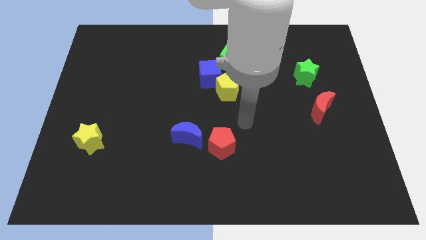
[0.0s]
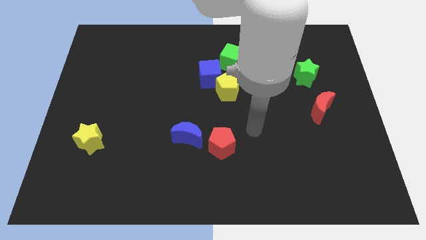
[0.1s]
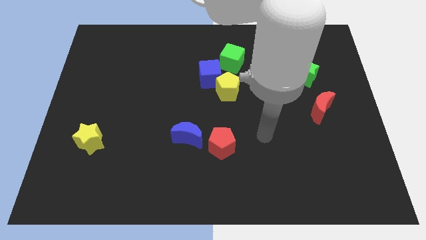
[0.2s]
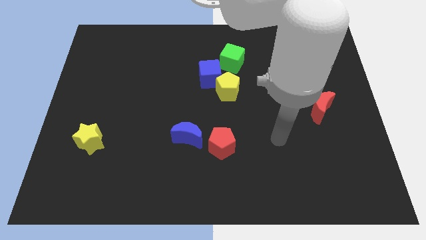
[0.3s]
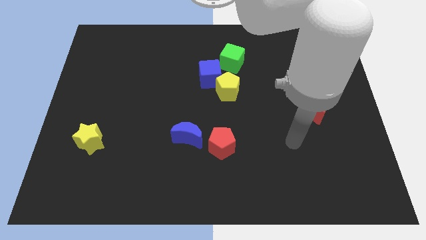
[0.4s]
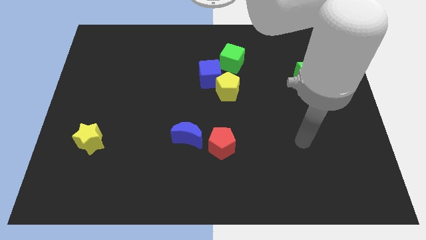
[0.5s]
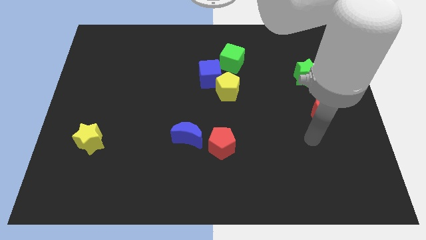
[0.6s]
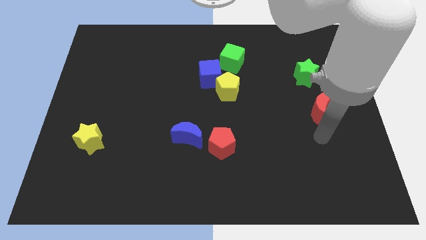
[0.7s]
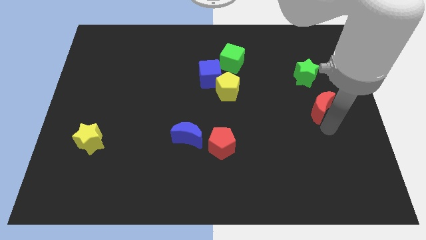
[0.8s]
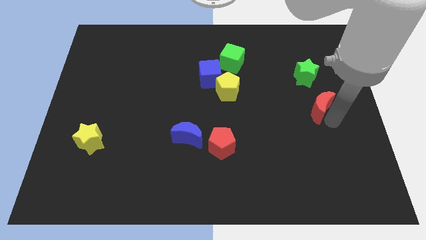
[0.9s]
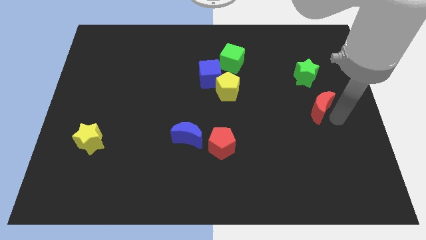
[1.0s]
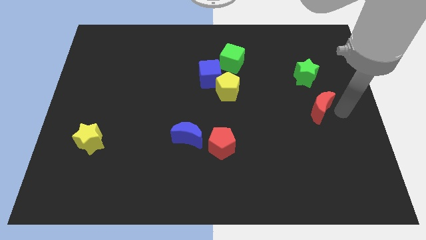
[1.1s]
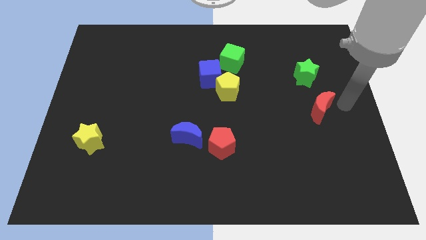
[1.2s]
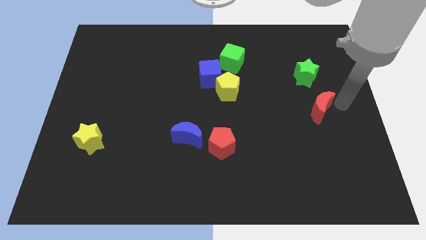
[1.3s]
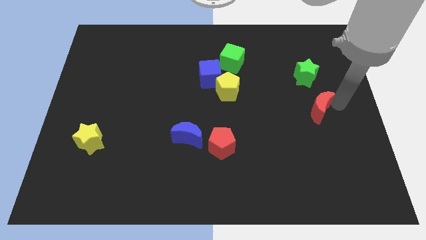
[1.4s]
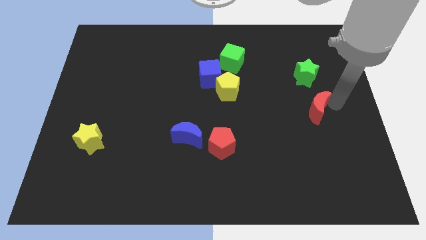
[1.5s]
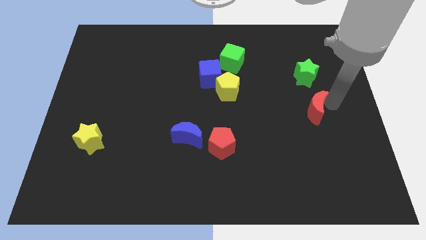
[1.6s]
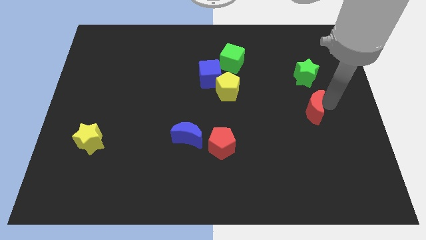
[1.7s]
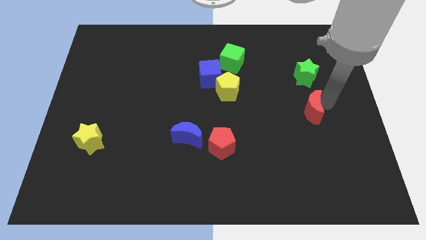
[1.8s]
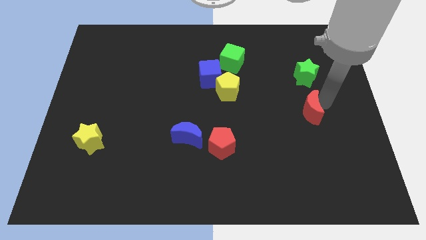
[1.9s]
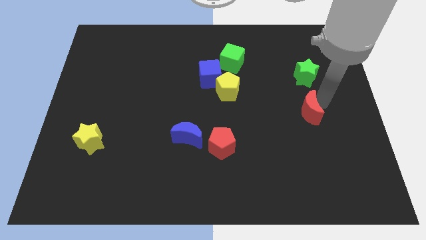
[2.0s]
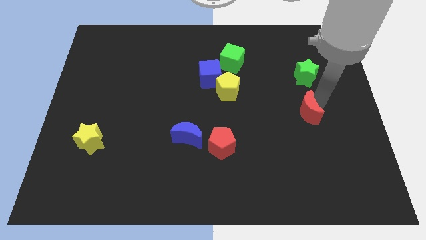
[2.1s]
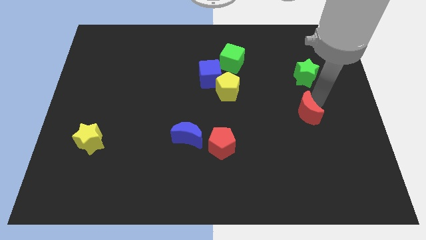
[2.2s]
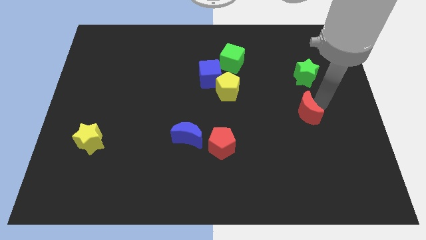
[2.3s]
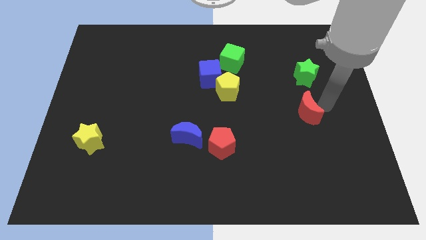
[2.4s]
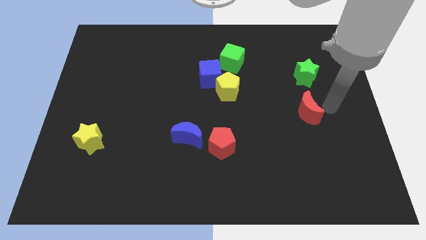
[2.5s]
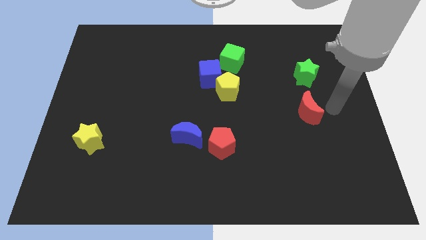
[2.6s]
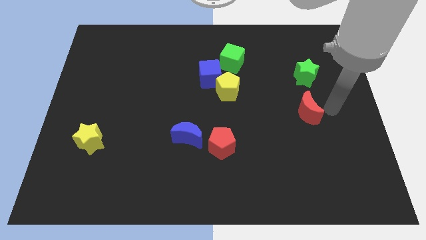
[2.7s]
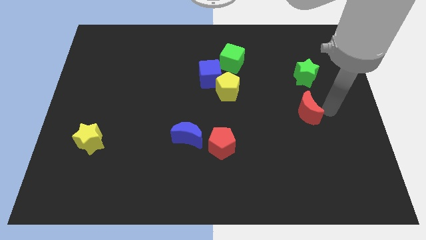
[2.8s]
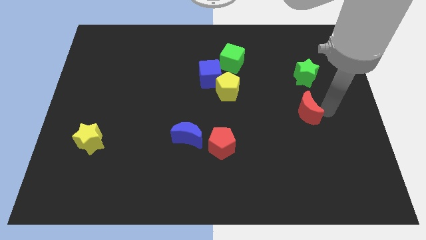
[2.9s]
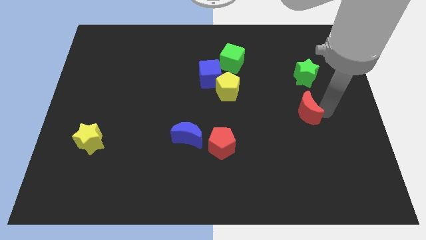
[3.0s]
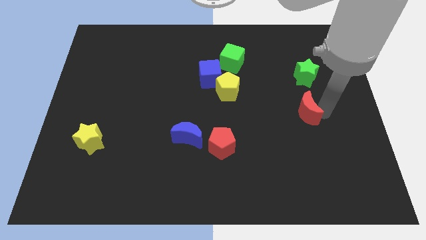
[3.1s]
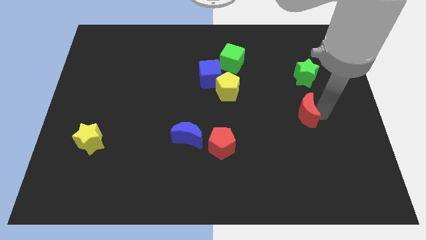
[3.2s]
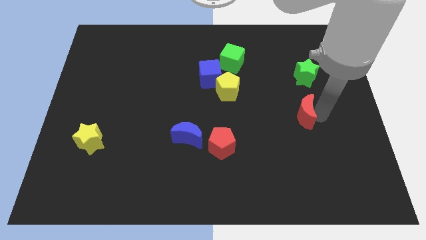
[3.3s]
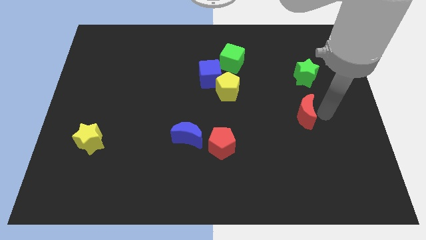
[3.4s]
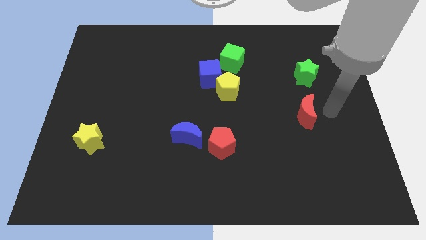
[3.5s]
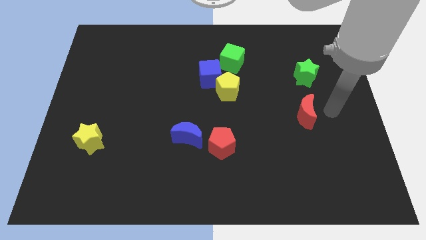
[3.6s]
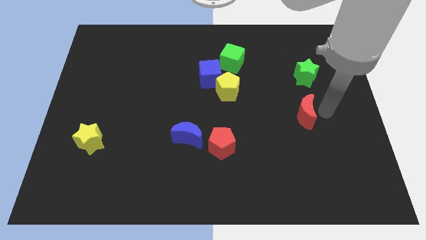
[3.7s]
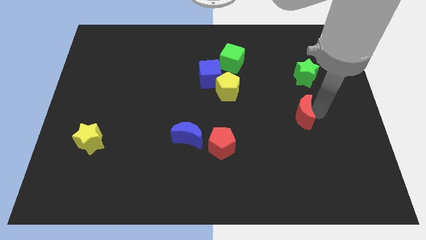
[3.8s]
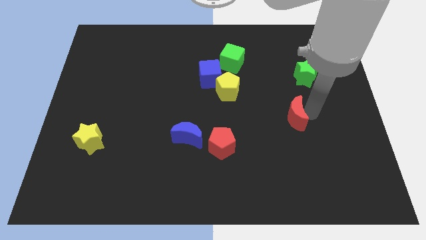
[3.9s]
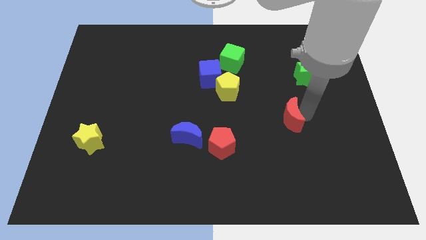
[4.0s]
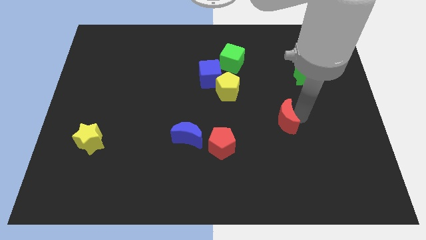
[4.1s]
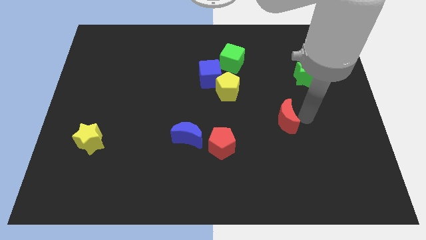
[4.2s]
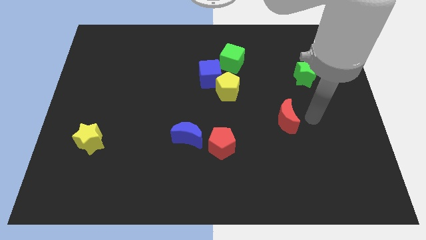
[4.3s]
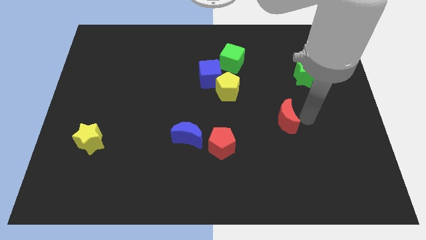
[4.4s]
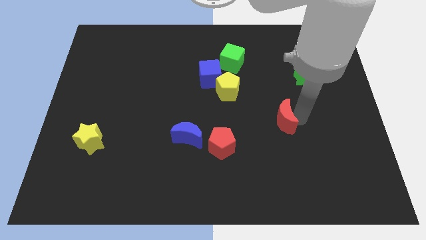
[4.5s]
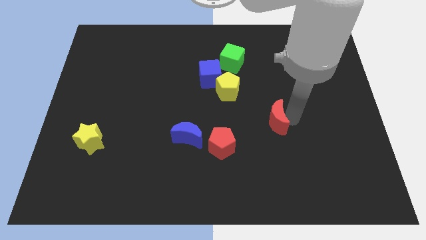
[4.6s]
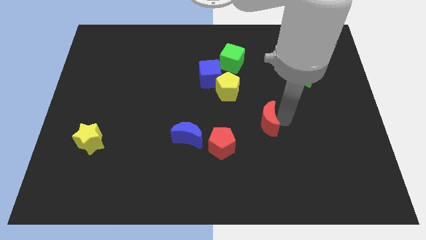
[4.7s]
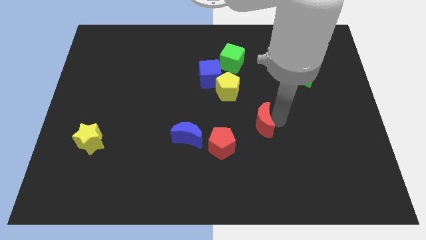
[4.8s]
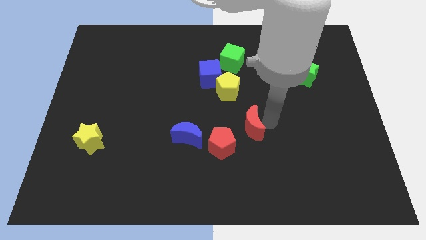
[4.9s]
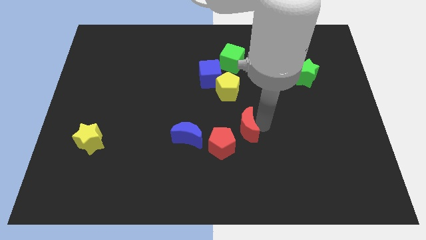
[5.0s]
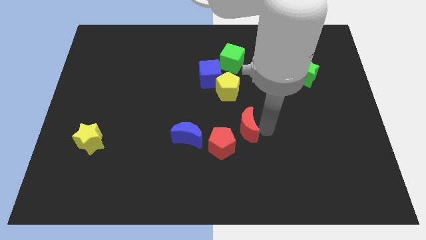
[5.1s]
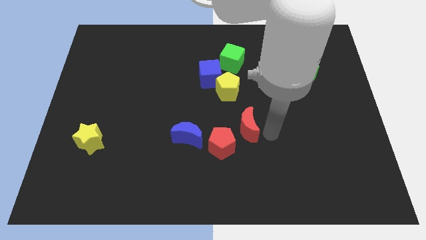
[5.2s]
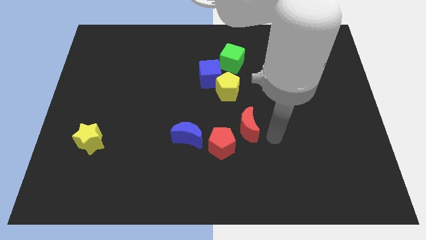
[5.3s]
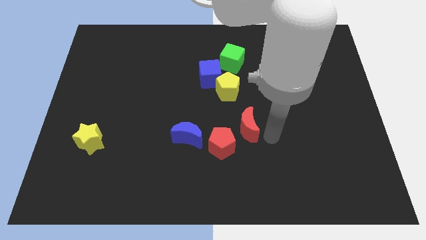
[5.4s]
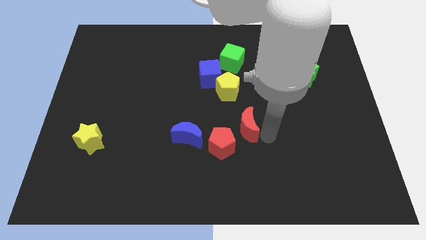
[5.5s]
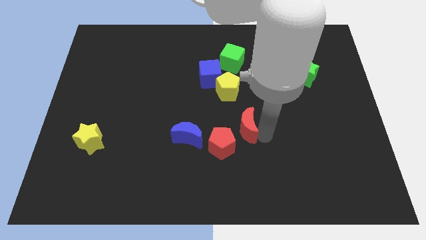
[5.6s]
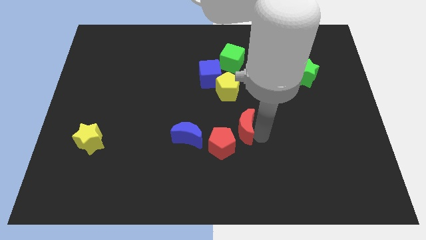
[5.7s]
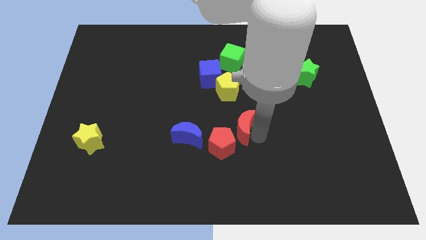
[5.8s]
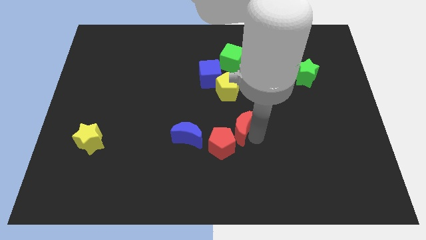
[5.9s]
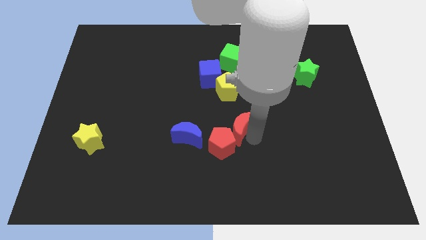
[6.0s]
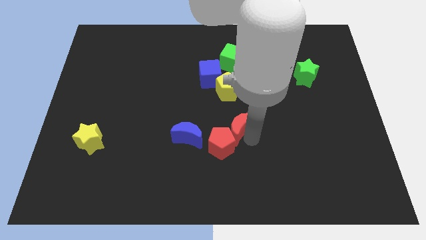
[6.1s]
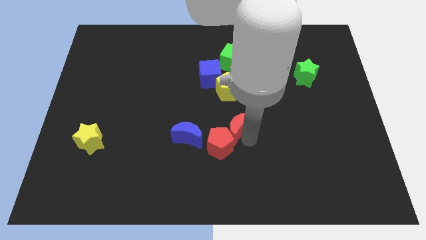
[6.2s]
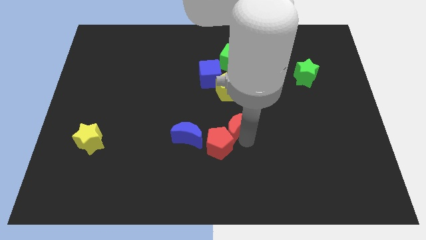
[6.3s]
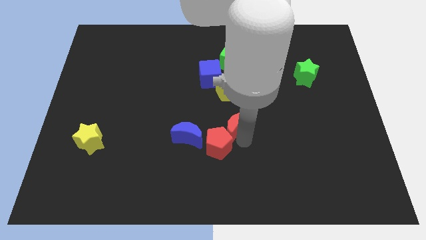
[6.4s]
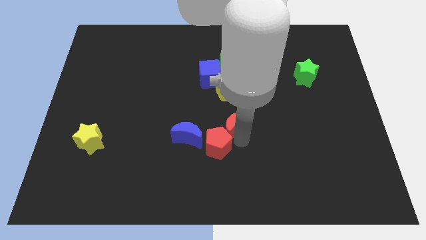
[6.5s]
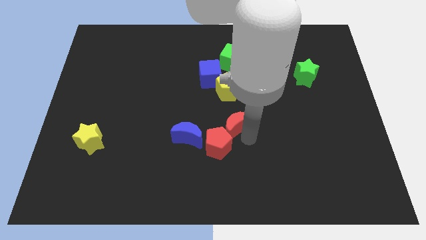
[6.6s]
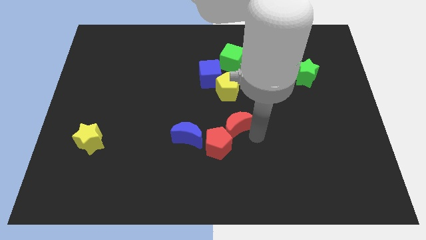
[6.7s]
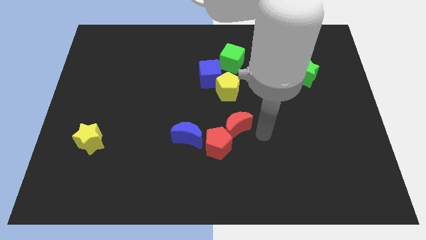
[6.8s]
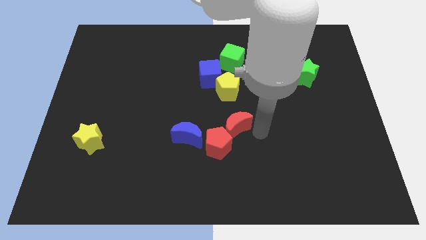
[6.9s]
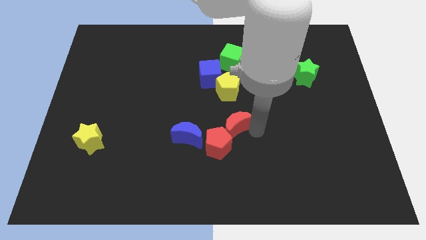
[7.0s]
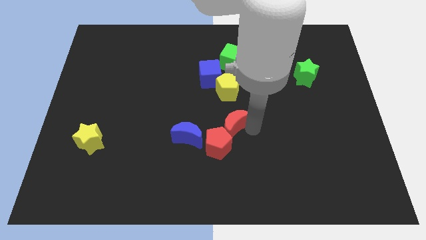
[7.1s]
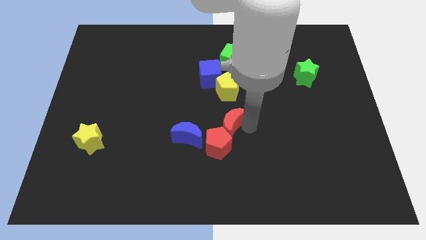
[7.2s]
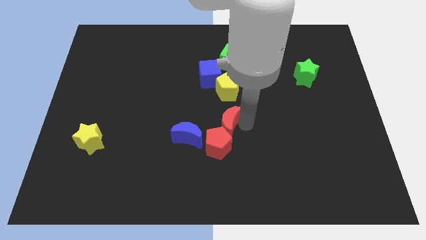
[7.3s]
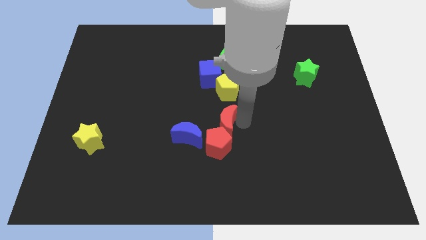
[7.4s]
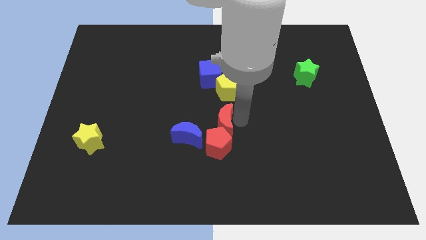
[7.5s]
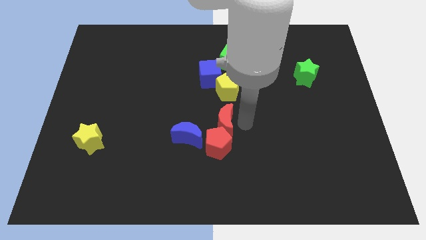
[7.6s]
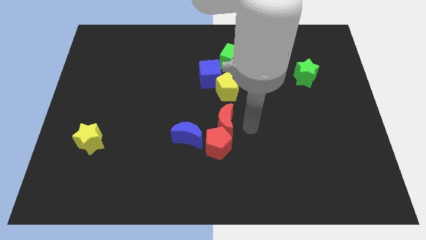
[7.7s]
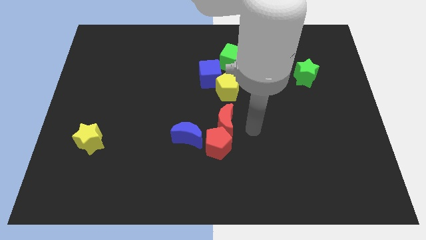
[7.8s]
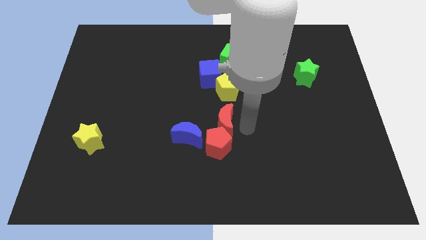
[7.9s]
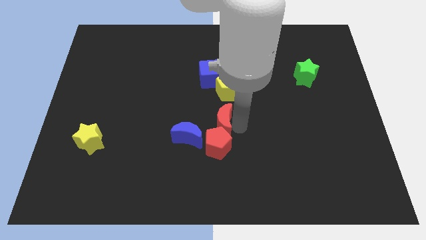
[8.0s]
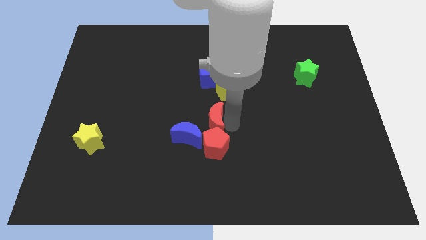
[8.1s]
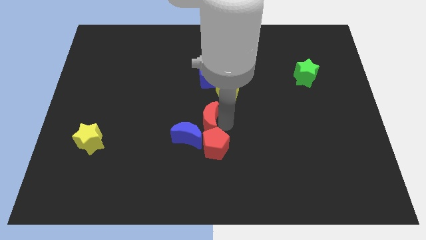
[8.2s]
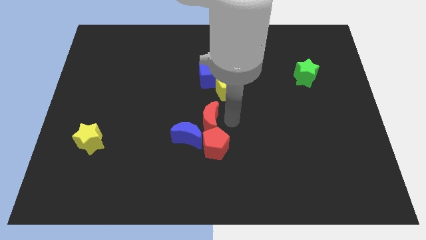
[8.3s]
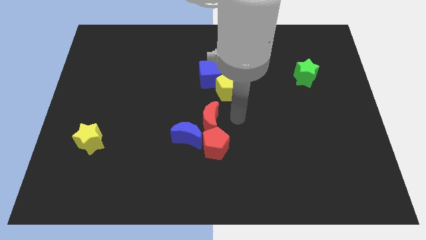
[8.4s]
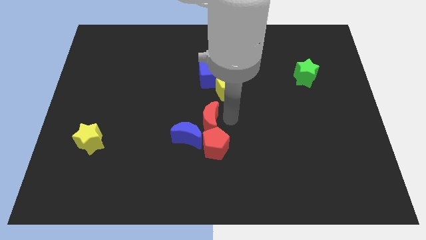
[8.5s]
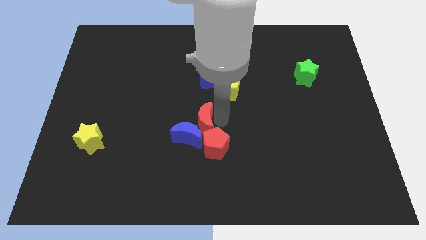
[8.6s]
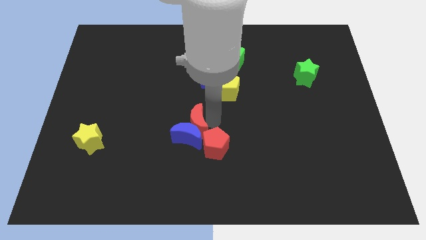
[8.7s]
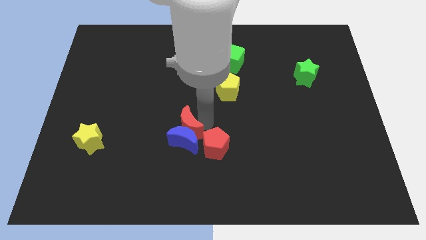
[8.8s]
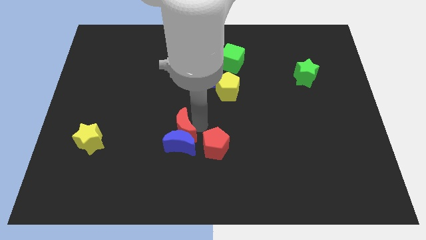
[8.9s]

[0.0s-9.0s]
put the red moon just left of the red pentagon
